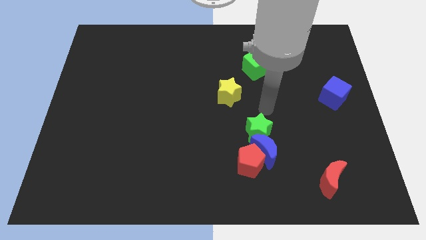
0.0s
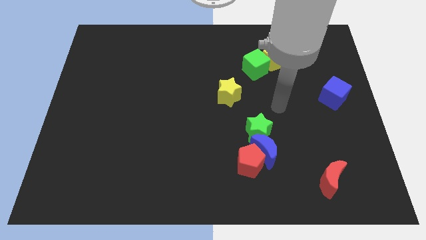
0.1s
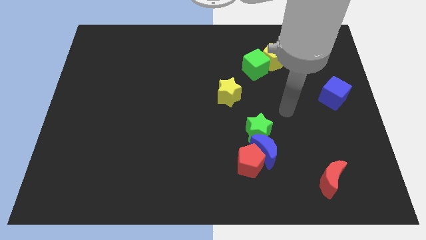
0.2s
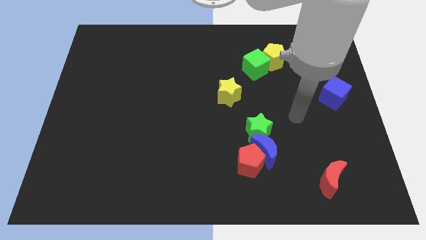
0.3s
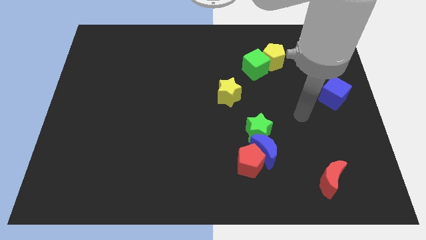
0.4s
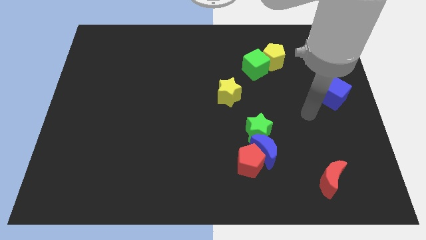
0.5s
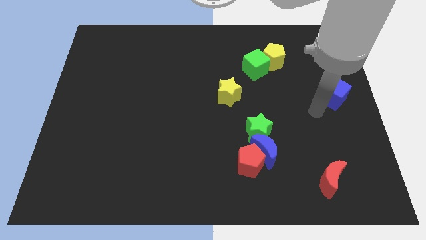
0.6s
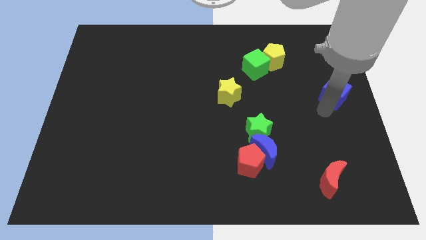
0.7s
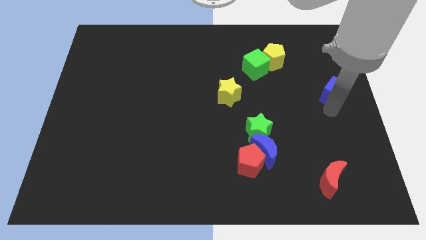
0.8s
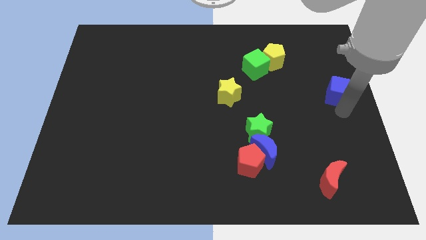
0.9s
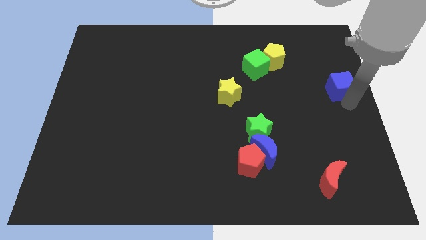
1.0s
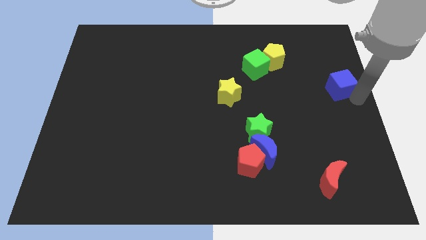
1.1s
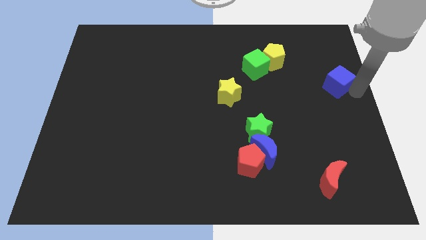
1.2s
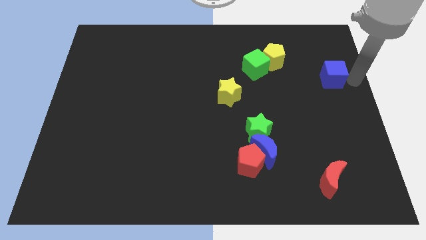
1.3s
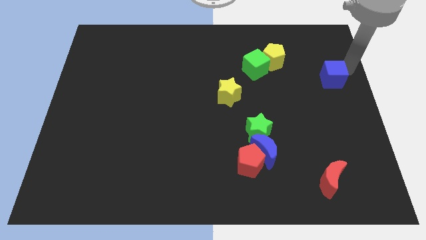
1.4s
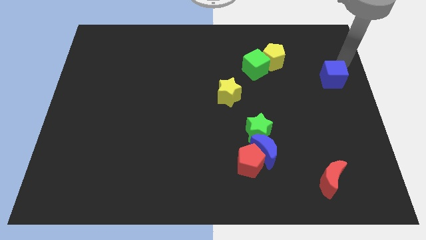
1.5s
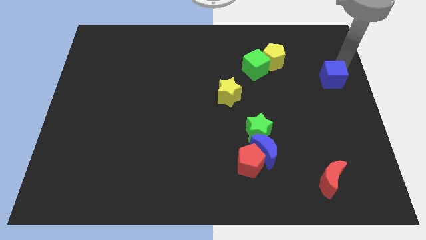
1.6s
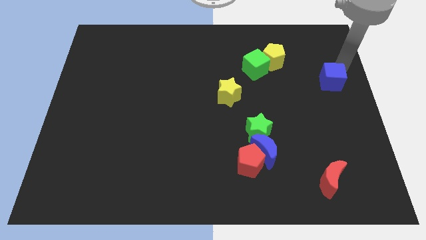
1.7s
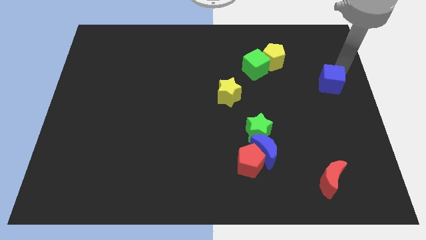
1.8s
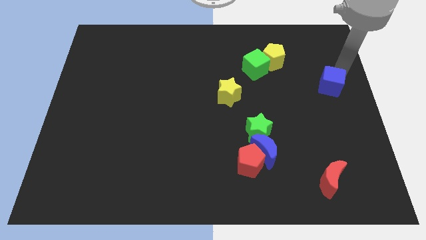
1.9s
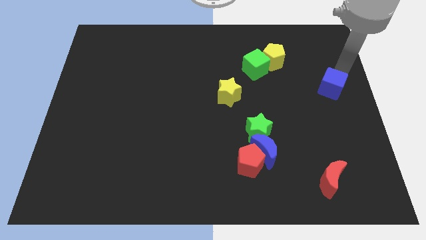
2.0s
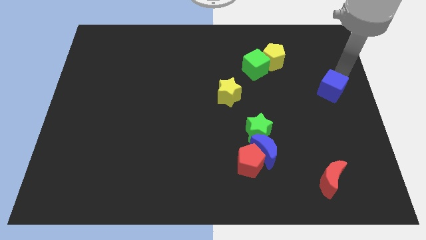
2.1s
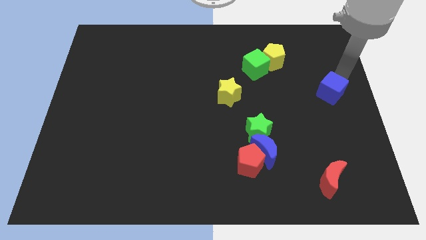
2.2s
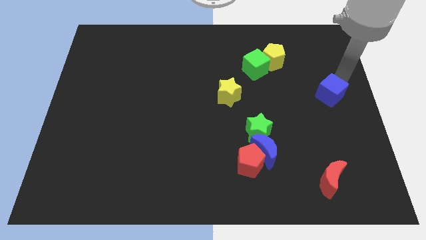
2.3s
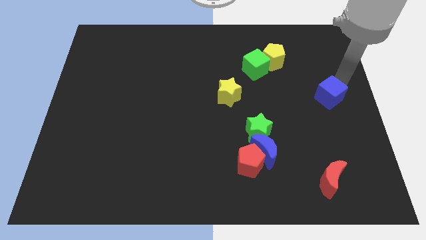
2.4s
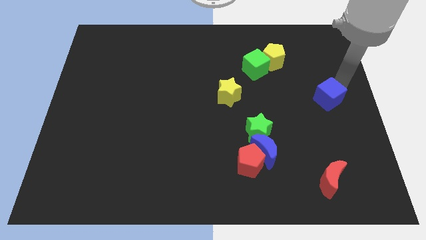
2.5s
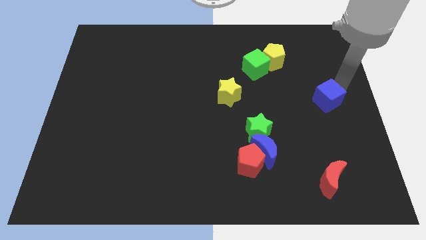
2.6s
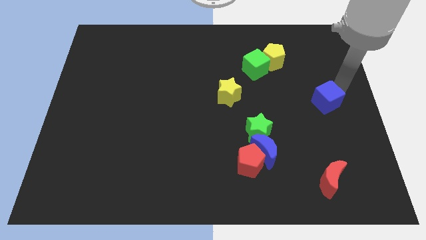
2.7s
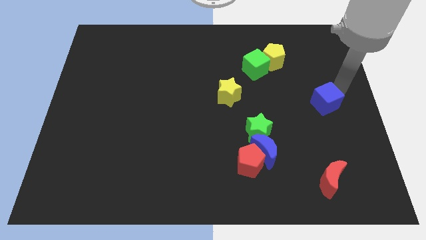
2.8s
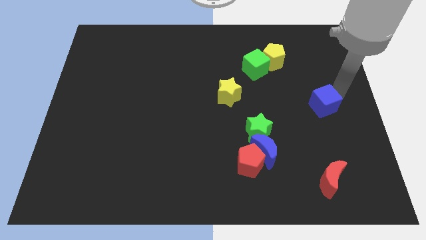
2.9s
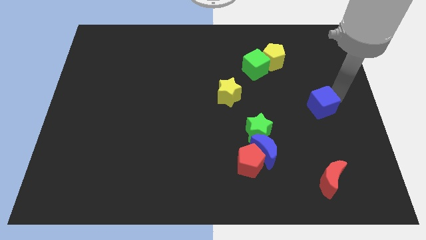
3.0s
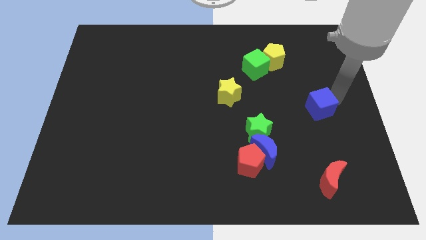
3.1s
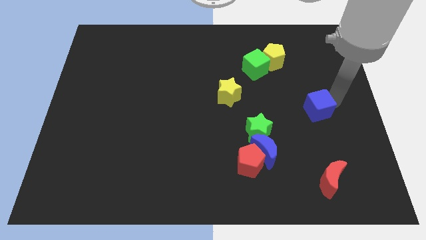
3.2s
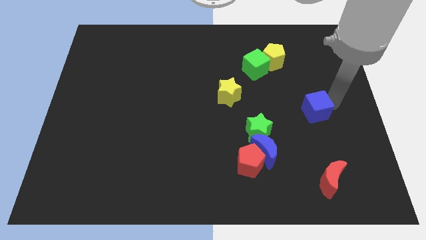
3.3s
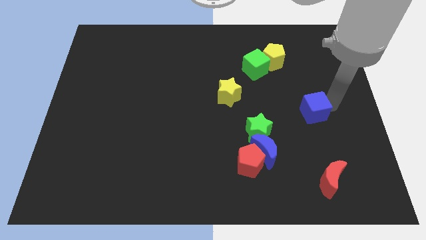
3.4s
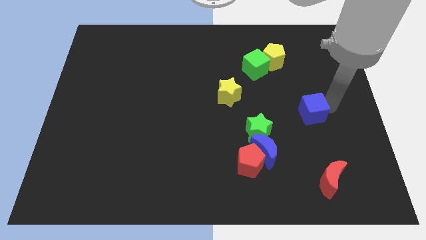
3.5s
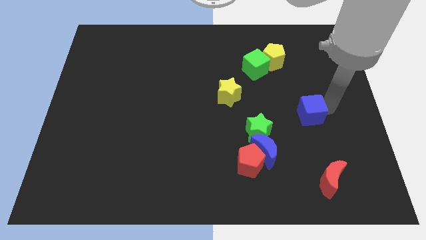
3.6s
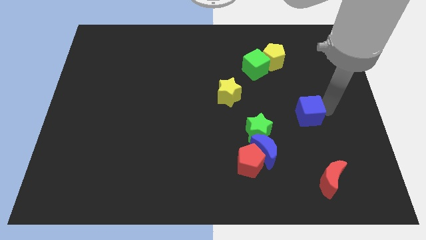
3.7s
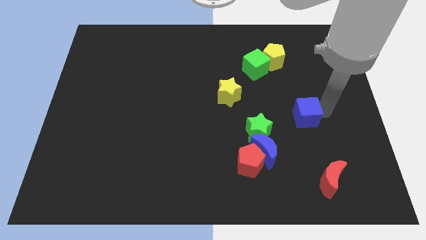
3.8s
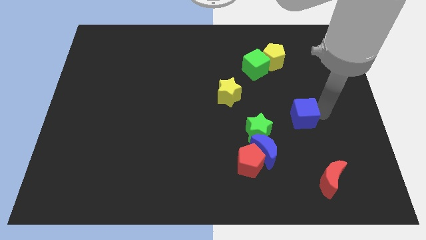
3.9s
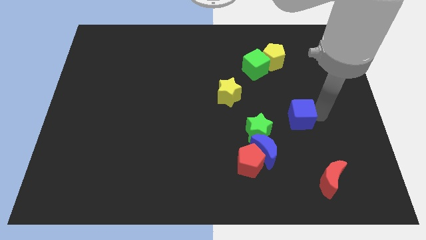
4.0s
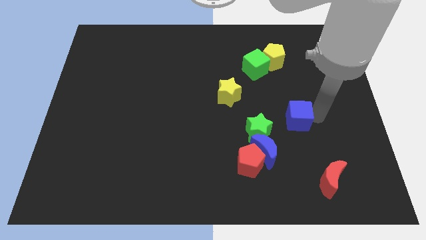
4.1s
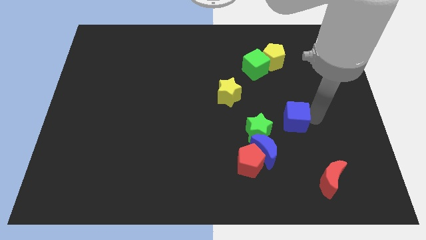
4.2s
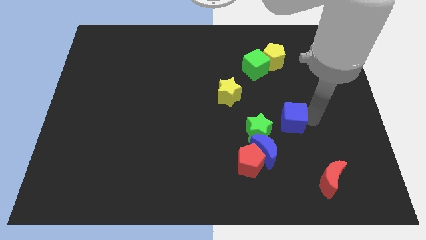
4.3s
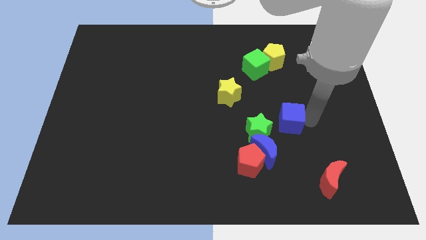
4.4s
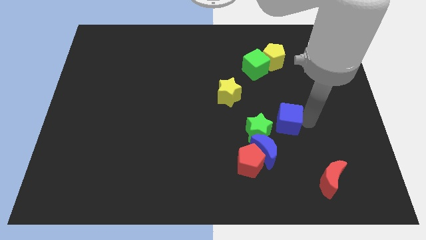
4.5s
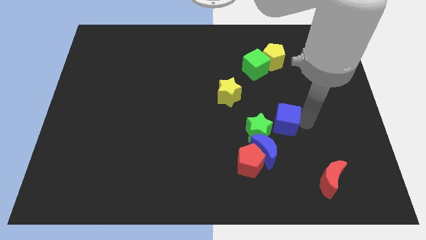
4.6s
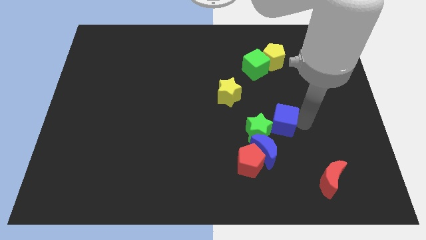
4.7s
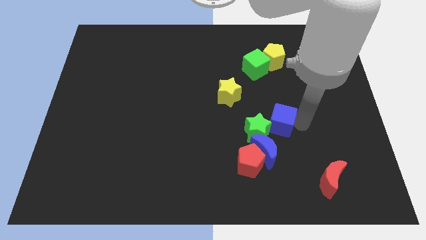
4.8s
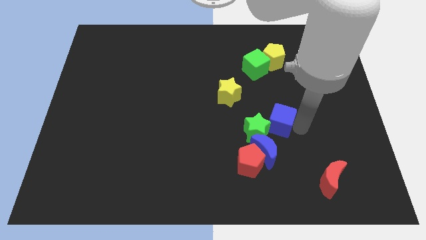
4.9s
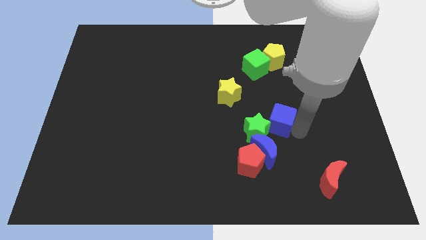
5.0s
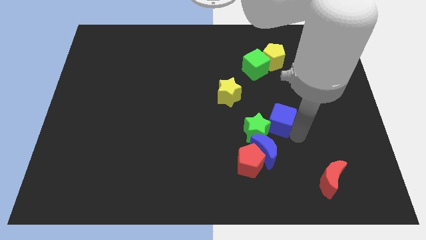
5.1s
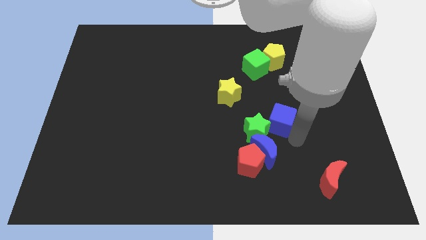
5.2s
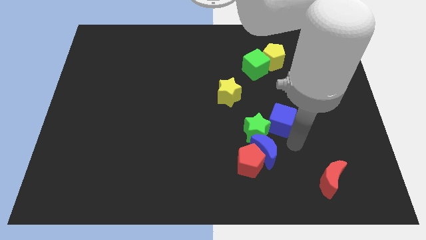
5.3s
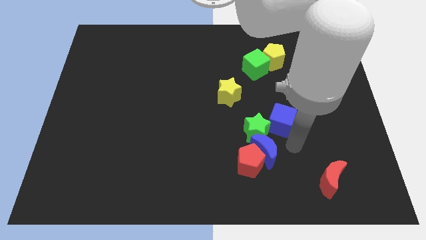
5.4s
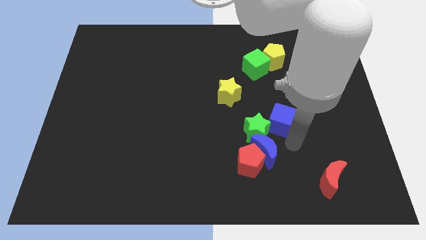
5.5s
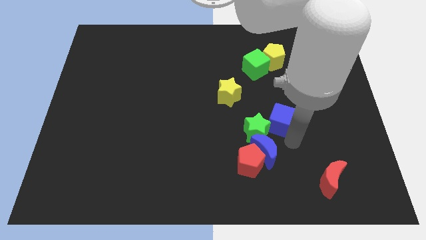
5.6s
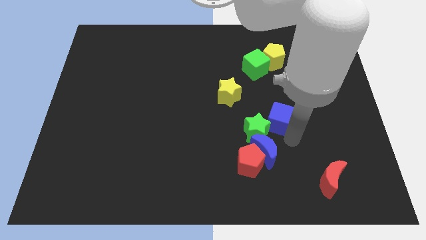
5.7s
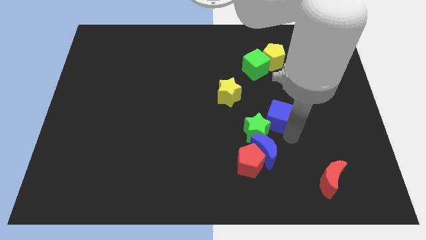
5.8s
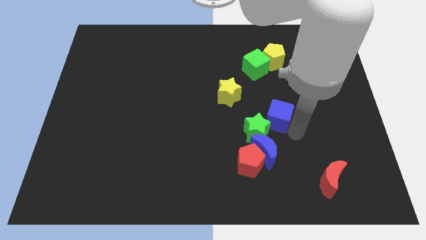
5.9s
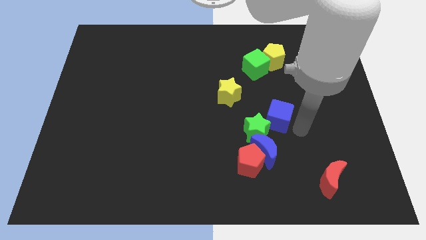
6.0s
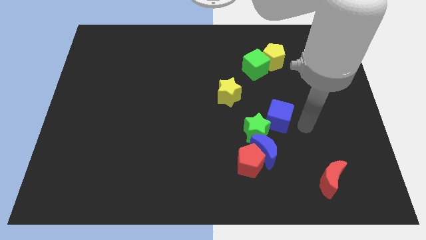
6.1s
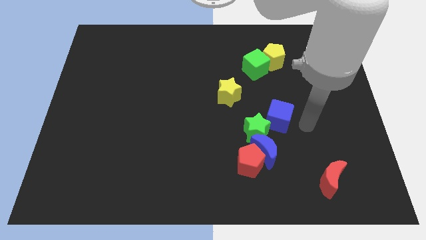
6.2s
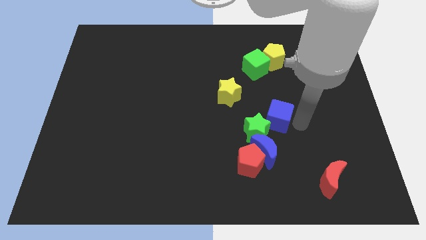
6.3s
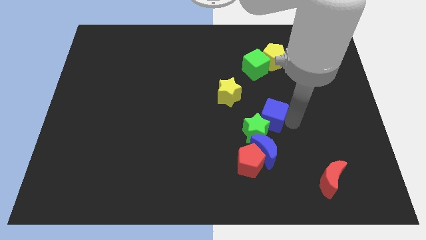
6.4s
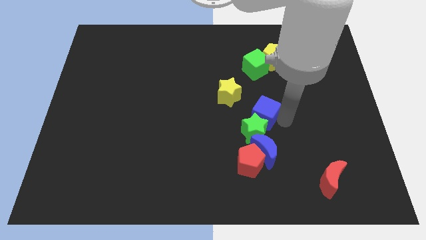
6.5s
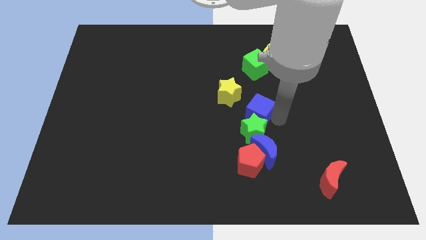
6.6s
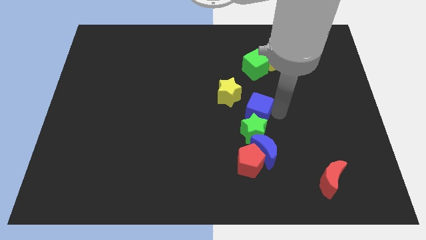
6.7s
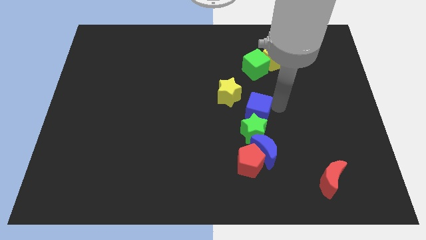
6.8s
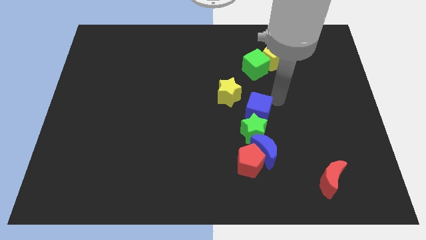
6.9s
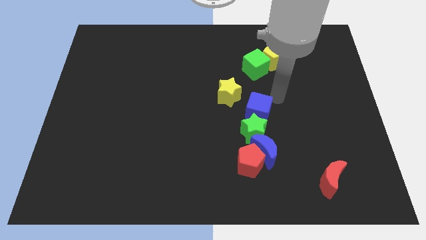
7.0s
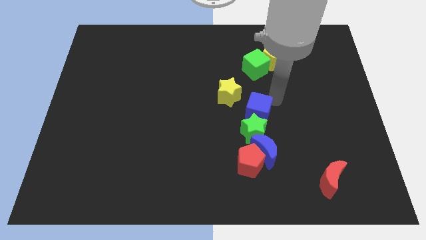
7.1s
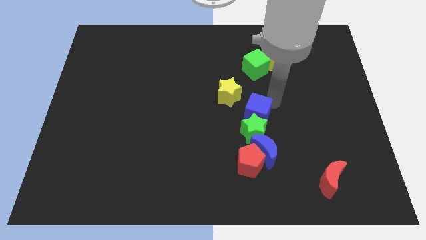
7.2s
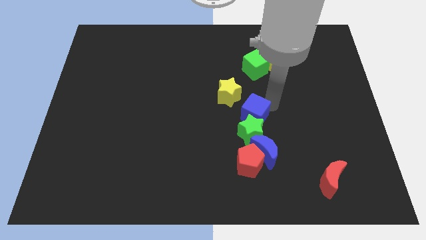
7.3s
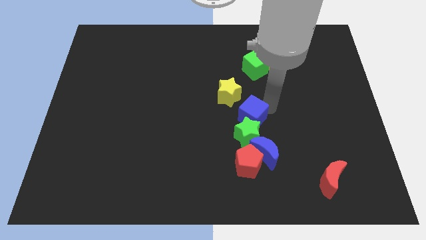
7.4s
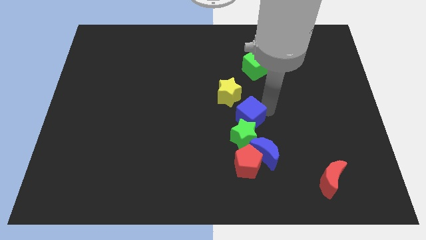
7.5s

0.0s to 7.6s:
slide the blue cube below the yellow star

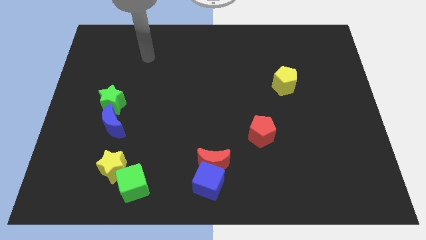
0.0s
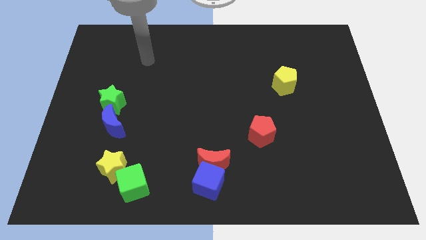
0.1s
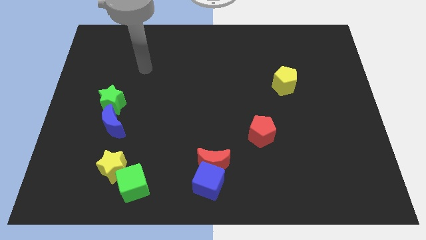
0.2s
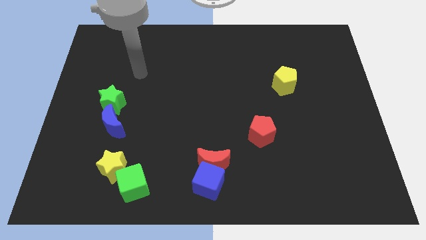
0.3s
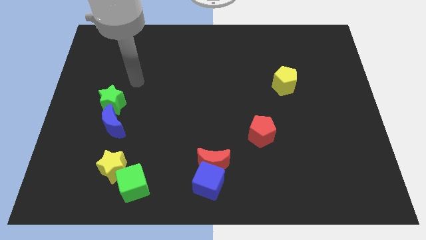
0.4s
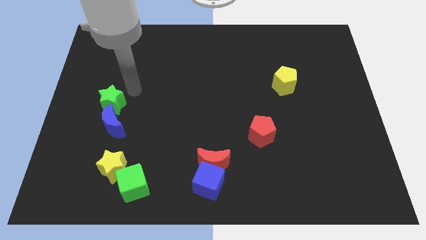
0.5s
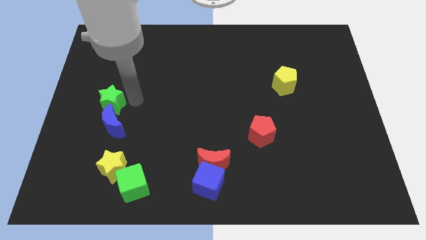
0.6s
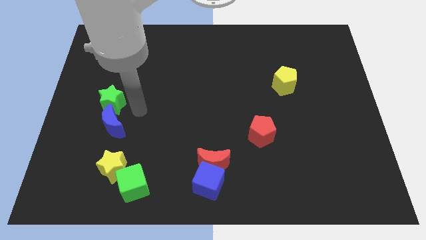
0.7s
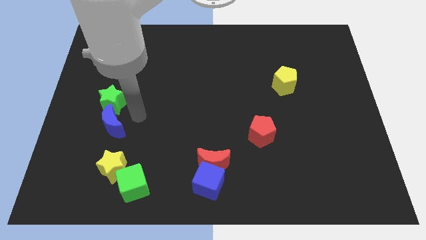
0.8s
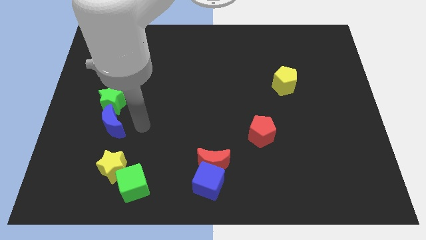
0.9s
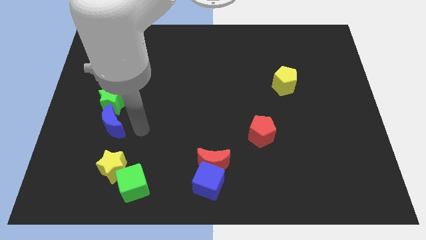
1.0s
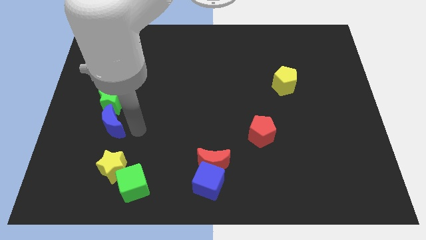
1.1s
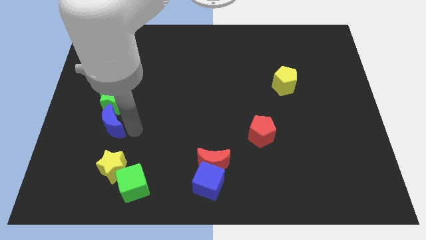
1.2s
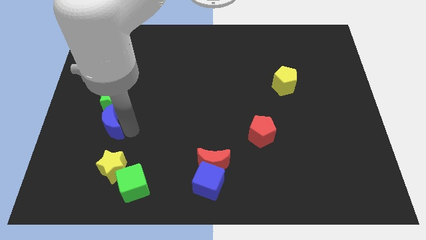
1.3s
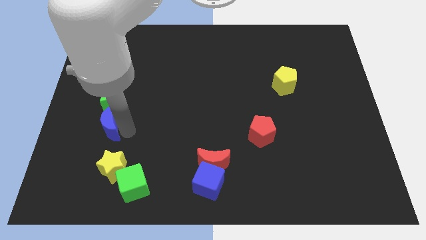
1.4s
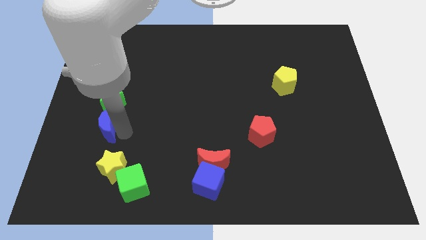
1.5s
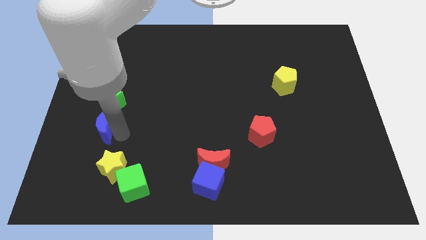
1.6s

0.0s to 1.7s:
slide the blue moon to the bottom left of the green star
